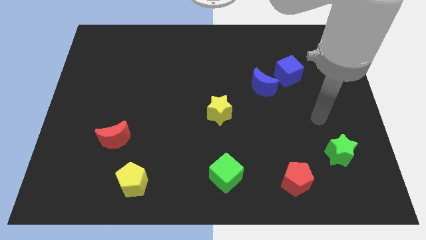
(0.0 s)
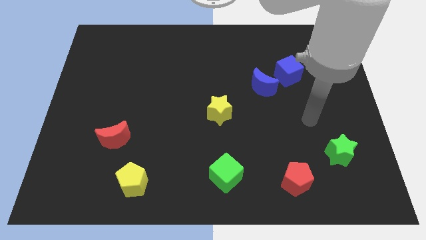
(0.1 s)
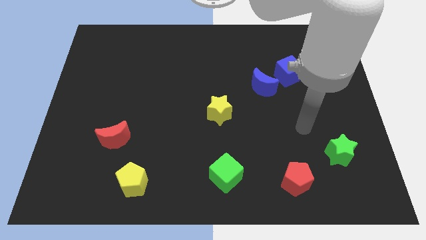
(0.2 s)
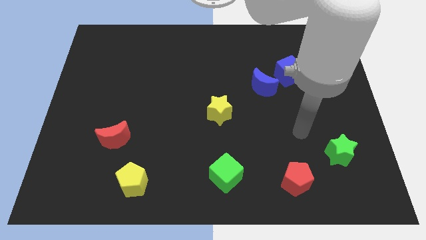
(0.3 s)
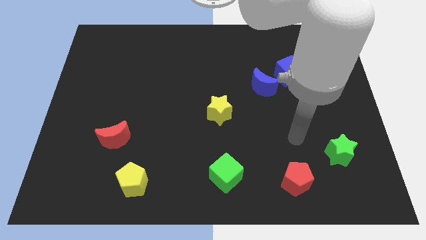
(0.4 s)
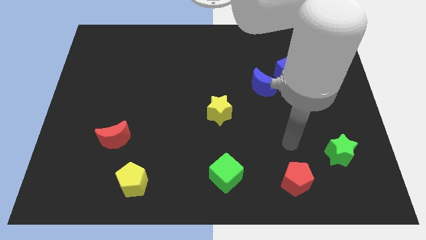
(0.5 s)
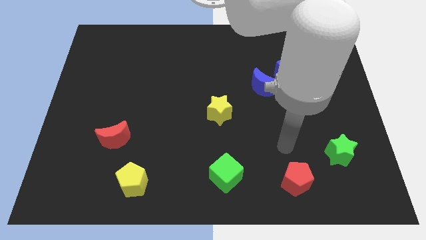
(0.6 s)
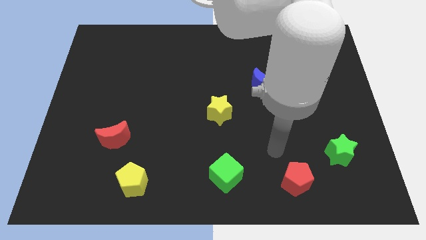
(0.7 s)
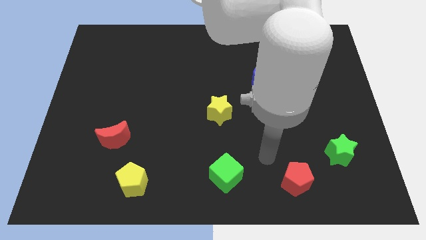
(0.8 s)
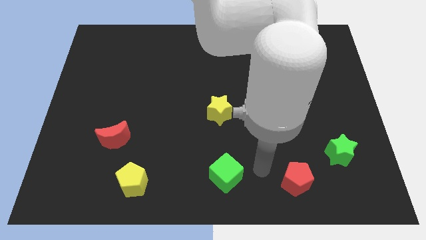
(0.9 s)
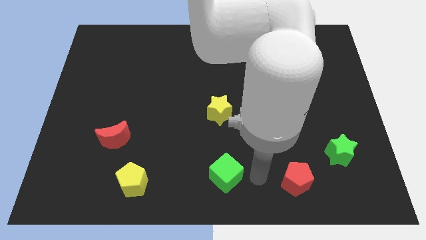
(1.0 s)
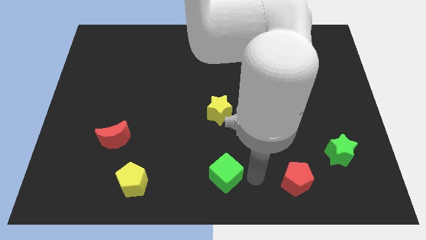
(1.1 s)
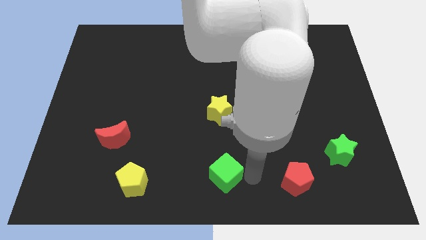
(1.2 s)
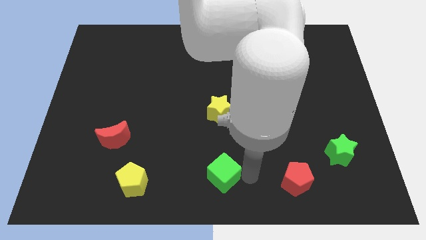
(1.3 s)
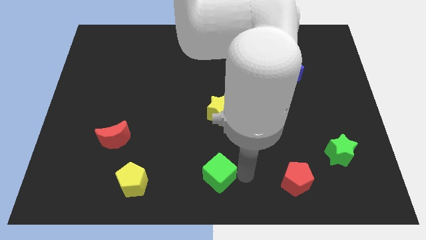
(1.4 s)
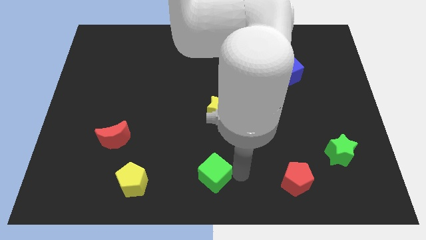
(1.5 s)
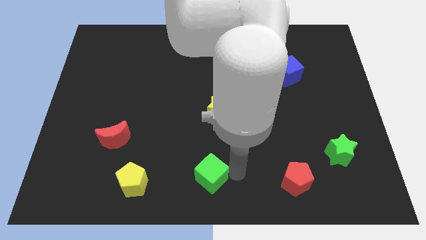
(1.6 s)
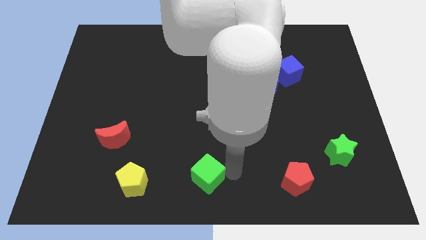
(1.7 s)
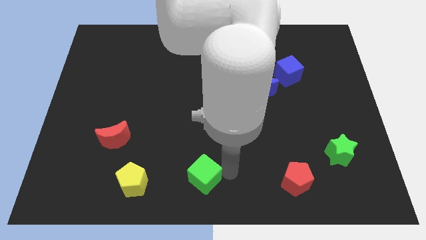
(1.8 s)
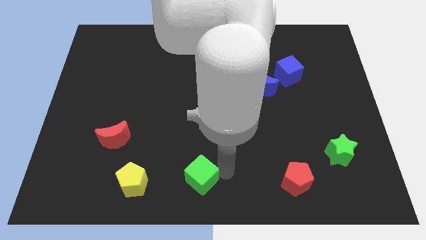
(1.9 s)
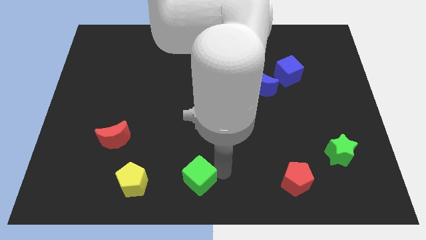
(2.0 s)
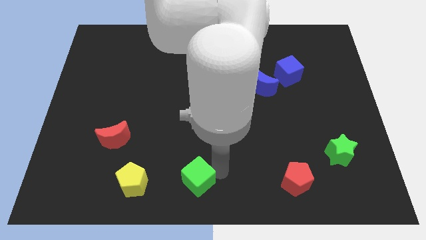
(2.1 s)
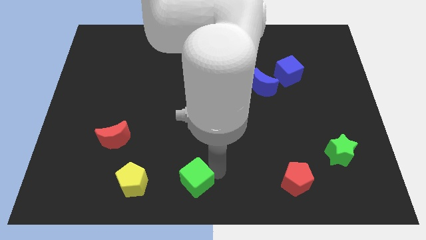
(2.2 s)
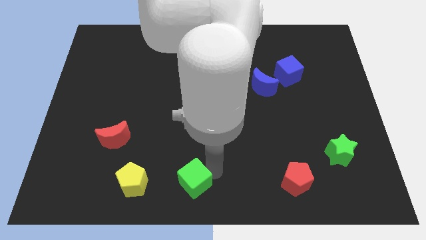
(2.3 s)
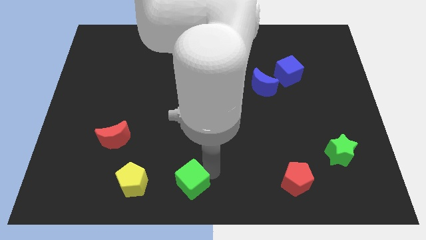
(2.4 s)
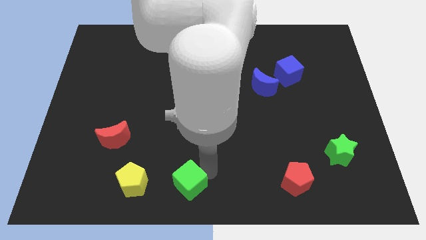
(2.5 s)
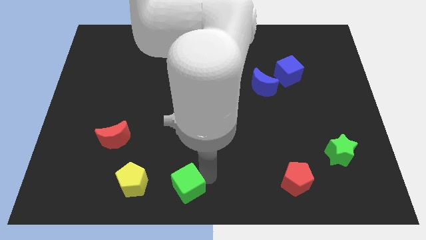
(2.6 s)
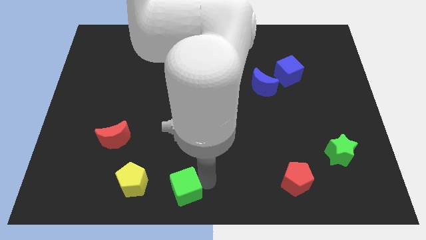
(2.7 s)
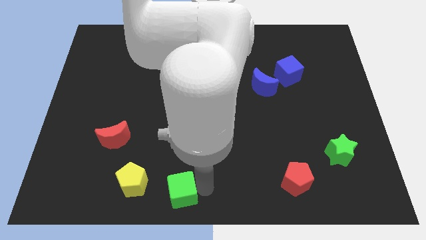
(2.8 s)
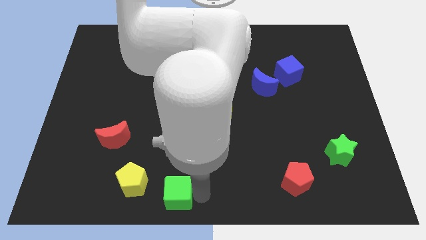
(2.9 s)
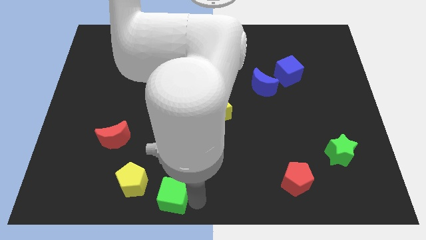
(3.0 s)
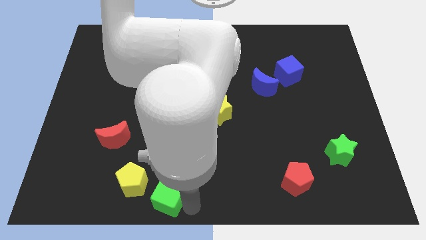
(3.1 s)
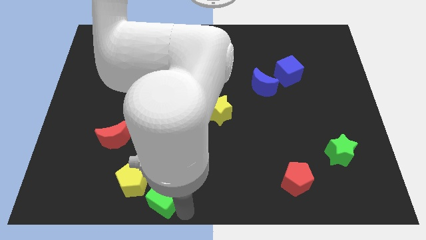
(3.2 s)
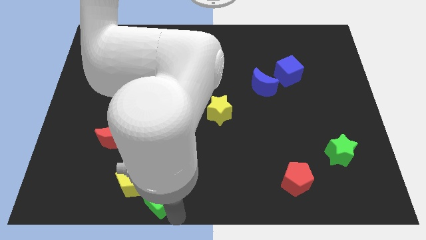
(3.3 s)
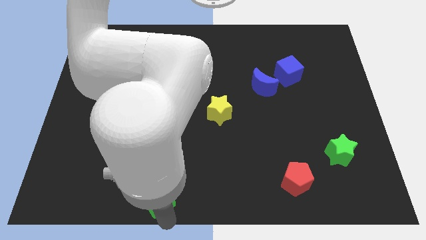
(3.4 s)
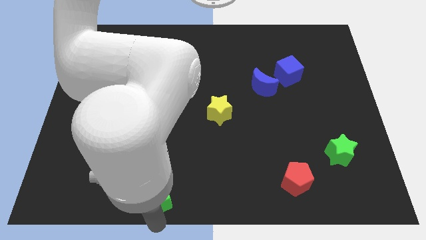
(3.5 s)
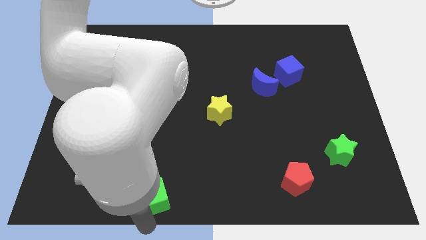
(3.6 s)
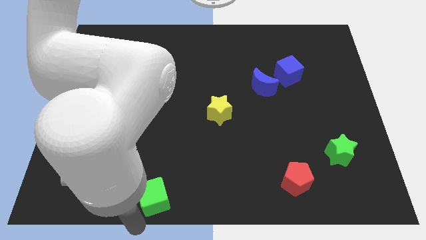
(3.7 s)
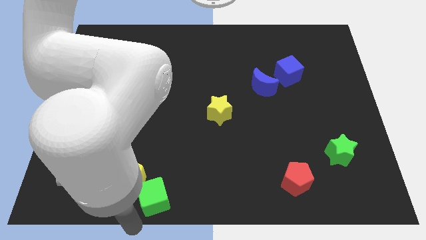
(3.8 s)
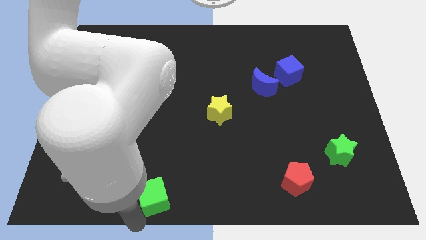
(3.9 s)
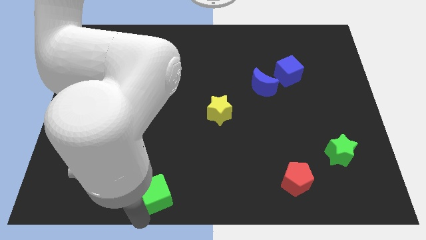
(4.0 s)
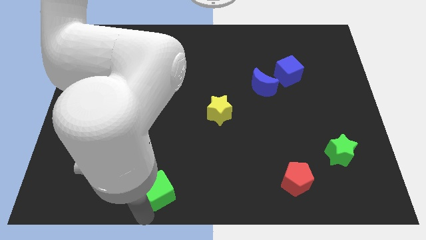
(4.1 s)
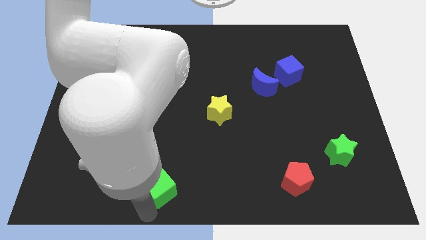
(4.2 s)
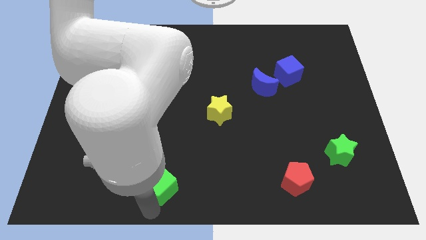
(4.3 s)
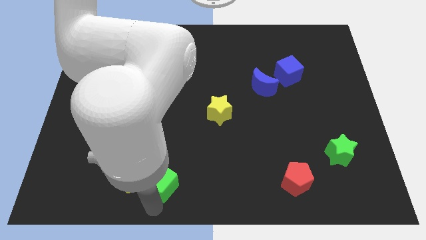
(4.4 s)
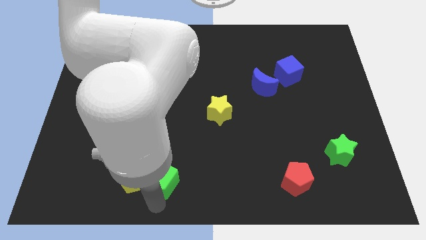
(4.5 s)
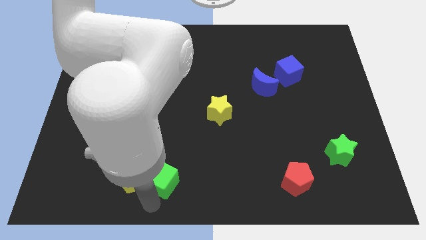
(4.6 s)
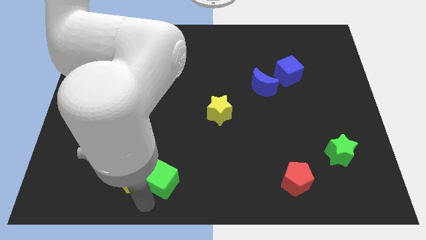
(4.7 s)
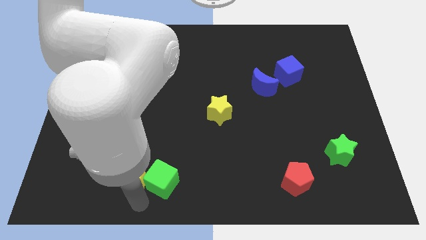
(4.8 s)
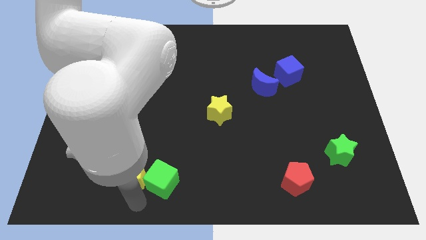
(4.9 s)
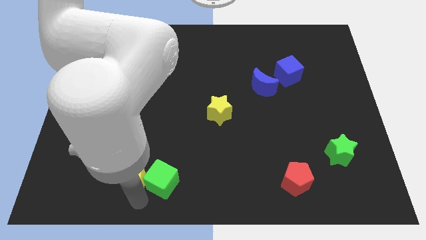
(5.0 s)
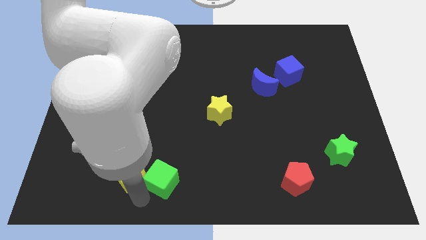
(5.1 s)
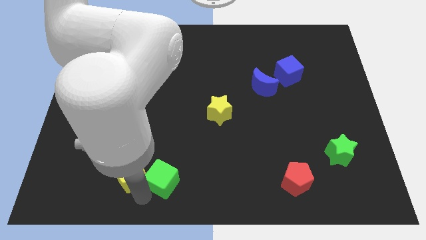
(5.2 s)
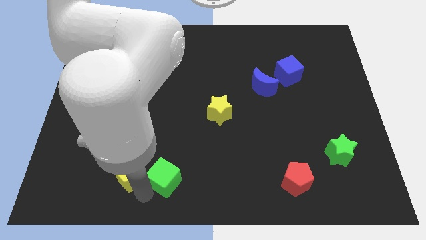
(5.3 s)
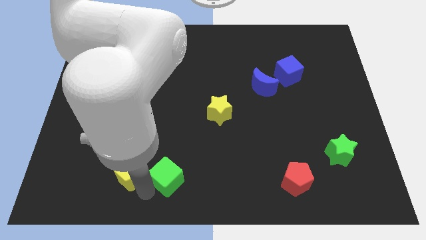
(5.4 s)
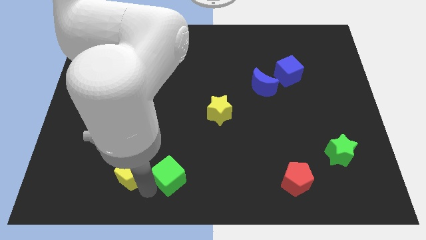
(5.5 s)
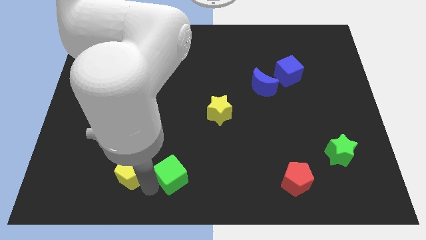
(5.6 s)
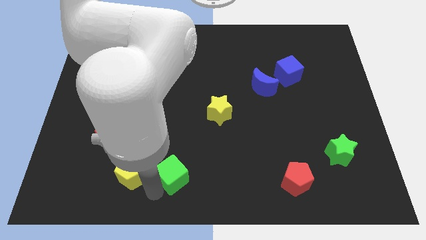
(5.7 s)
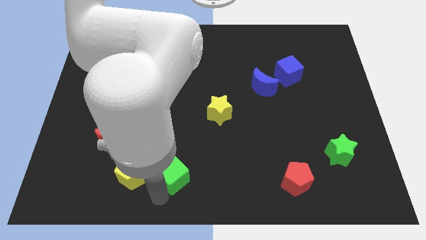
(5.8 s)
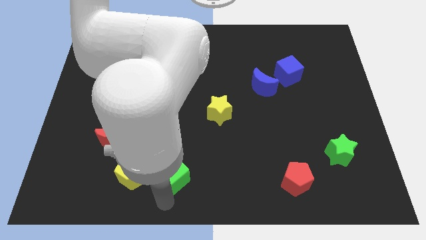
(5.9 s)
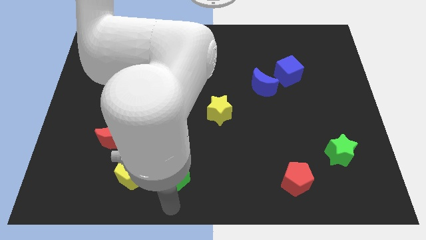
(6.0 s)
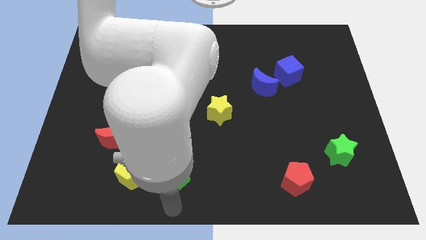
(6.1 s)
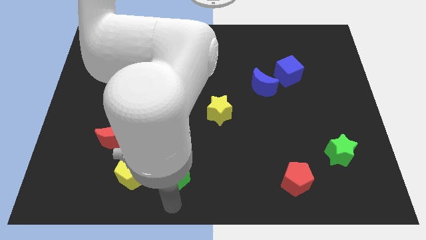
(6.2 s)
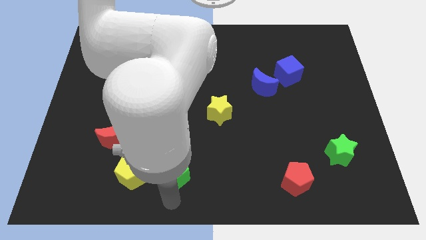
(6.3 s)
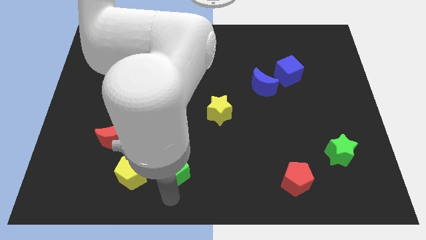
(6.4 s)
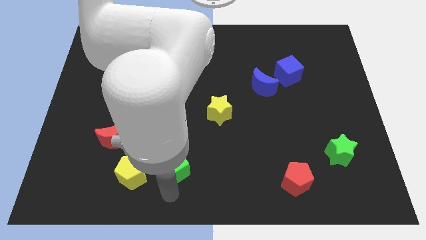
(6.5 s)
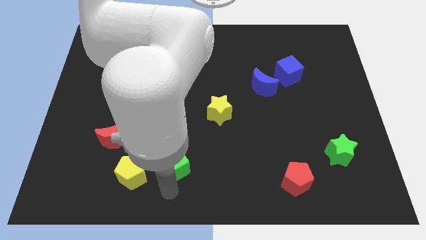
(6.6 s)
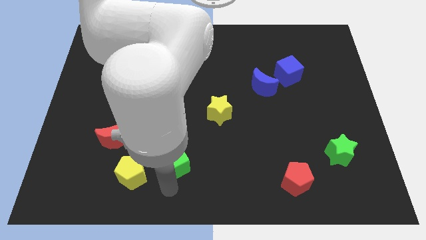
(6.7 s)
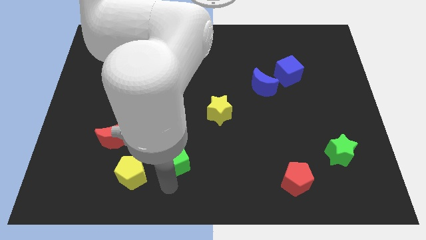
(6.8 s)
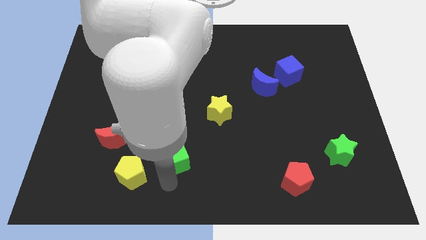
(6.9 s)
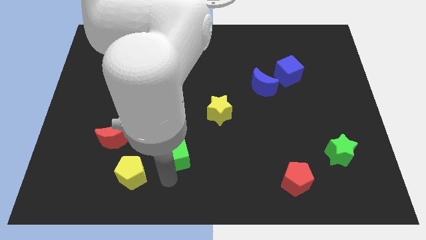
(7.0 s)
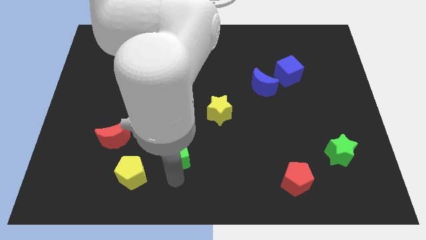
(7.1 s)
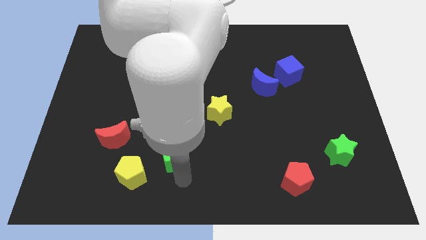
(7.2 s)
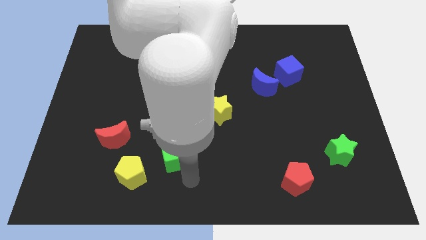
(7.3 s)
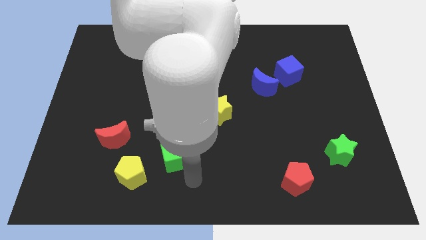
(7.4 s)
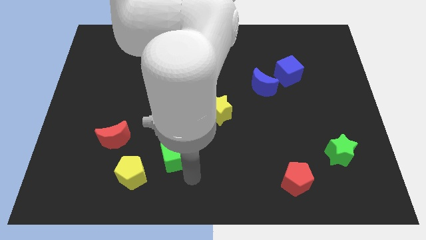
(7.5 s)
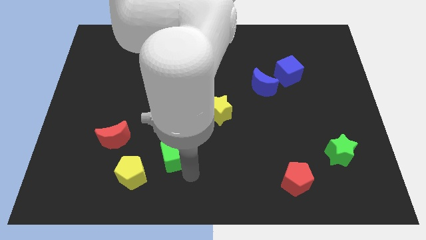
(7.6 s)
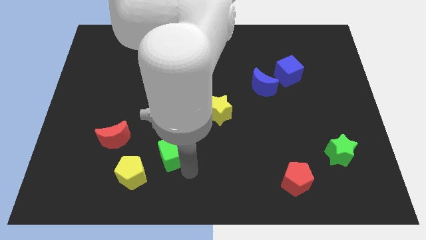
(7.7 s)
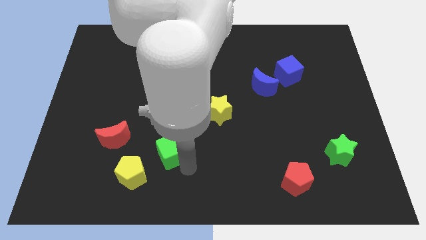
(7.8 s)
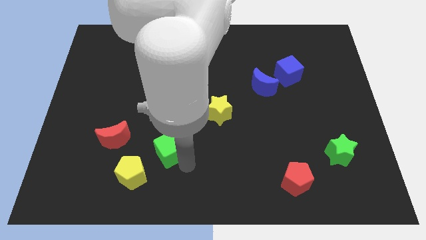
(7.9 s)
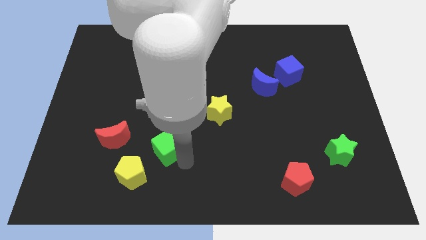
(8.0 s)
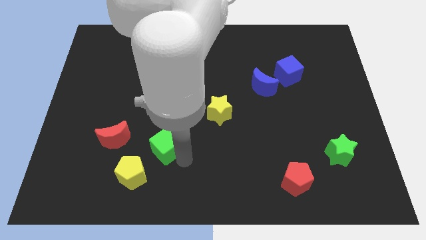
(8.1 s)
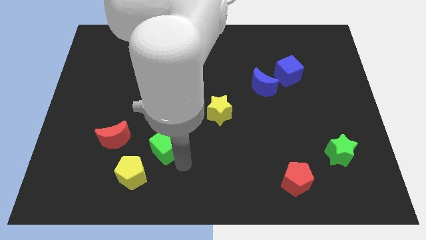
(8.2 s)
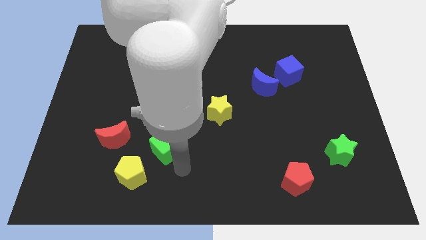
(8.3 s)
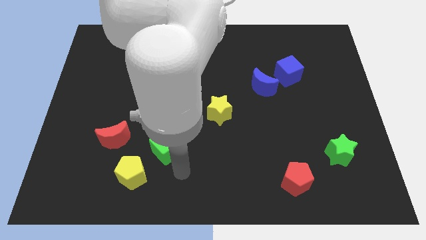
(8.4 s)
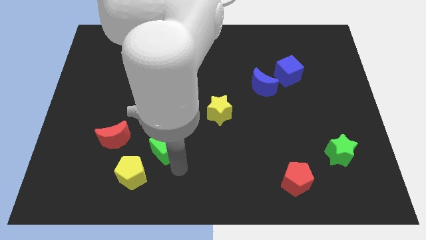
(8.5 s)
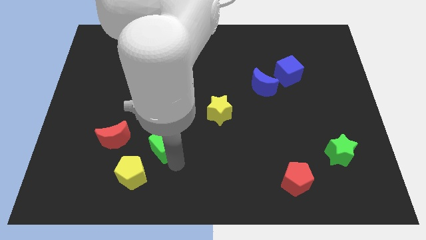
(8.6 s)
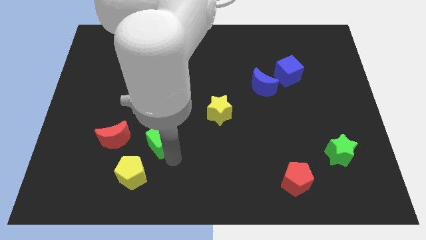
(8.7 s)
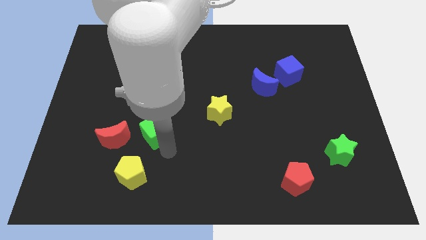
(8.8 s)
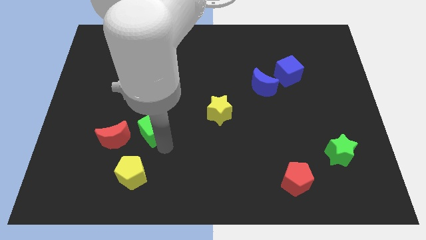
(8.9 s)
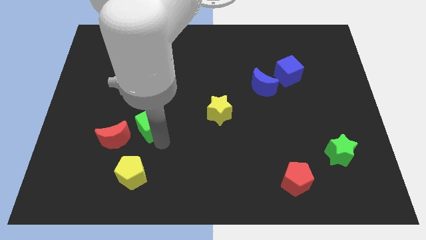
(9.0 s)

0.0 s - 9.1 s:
slide the green cube diagonally upwards and to the left
